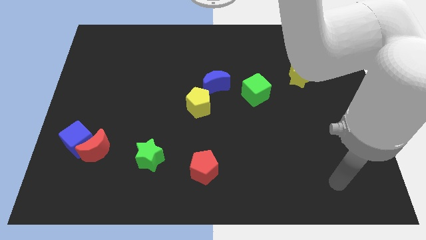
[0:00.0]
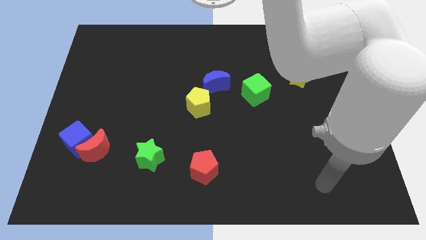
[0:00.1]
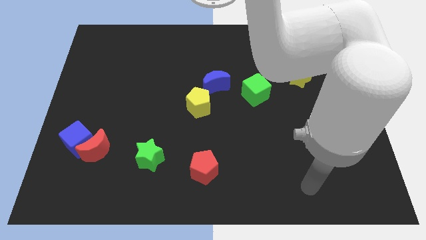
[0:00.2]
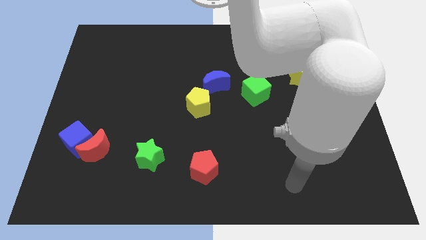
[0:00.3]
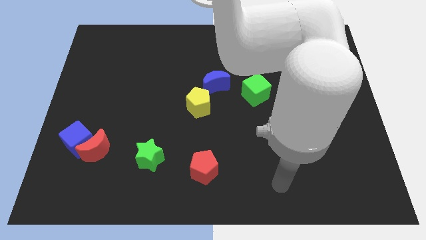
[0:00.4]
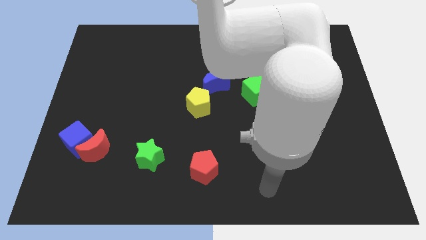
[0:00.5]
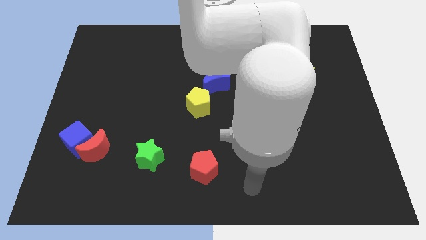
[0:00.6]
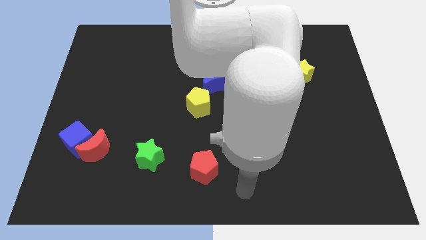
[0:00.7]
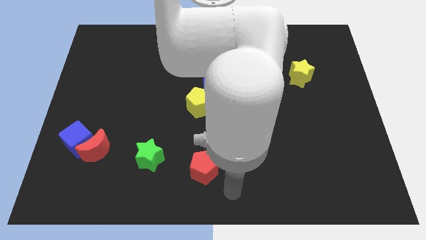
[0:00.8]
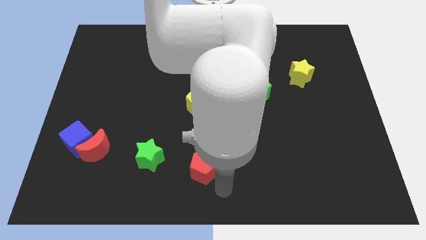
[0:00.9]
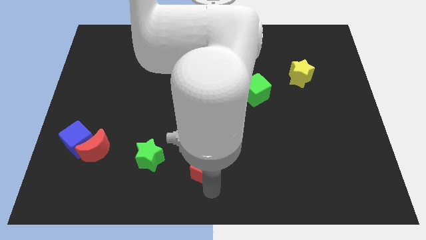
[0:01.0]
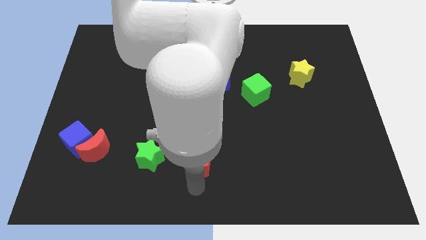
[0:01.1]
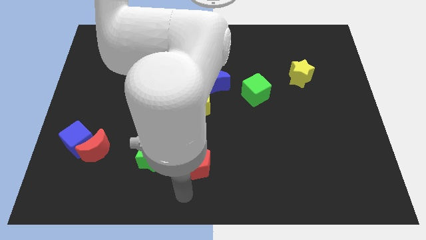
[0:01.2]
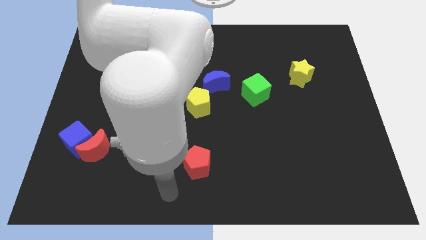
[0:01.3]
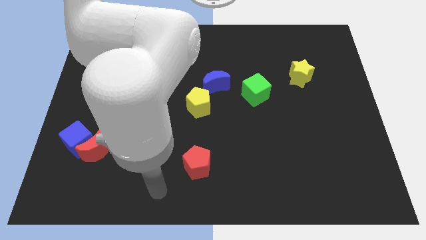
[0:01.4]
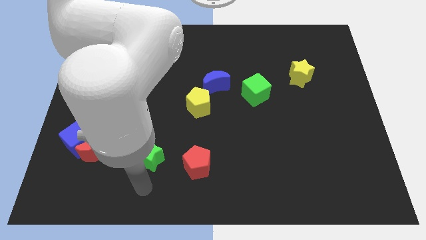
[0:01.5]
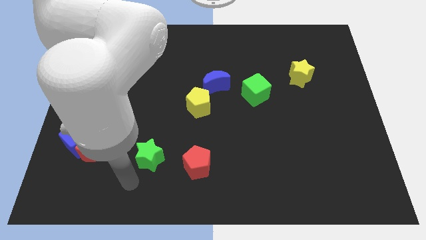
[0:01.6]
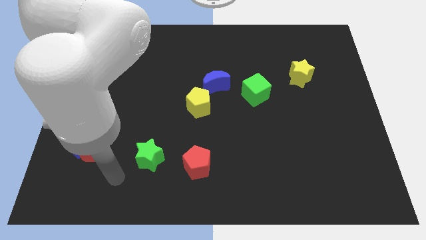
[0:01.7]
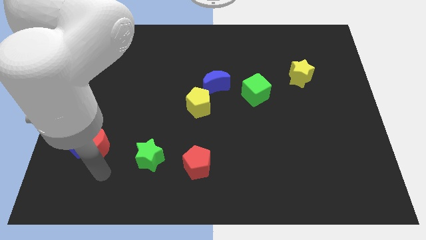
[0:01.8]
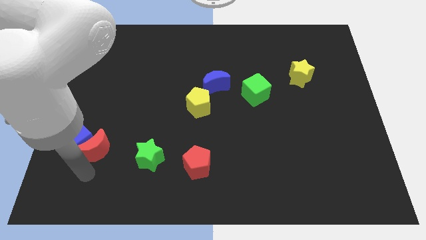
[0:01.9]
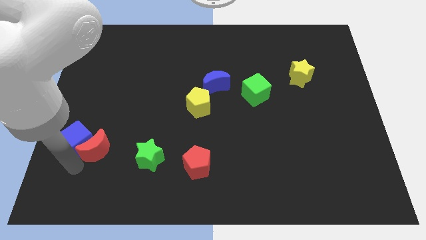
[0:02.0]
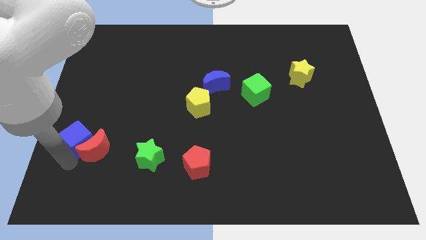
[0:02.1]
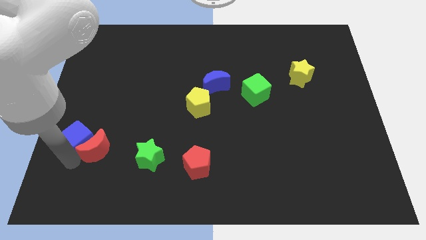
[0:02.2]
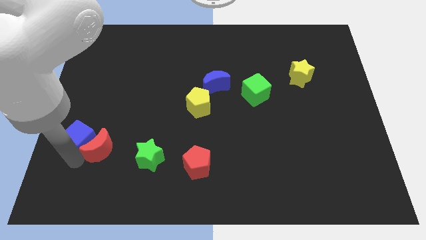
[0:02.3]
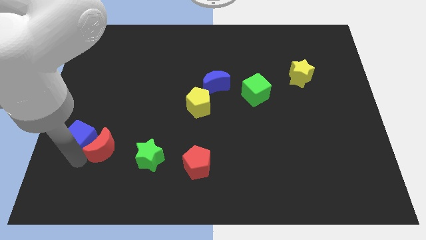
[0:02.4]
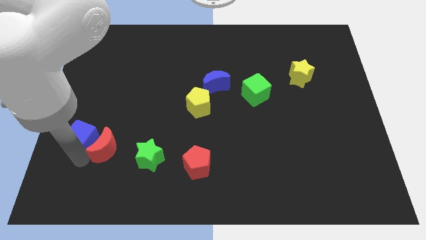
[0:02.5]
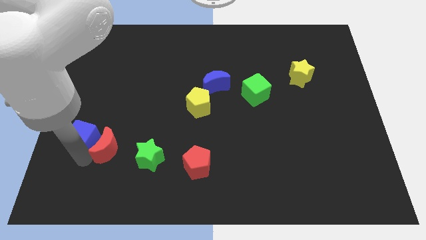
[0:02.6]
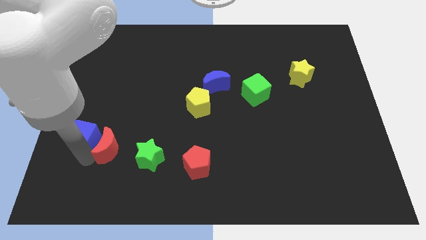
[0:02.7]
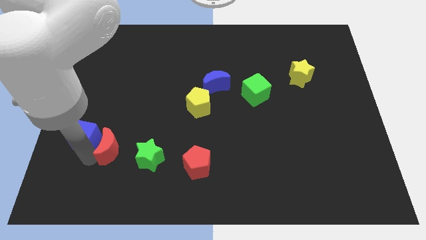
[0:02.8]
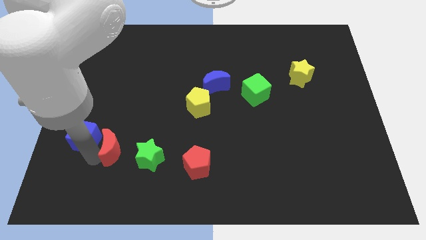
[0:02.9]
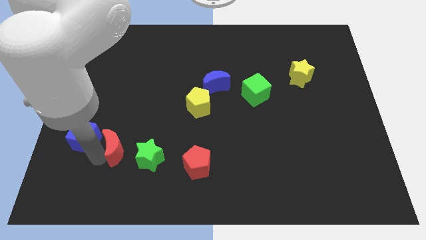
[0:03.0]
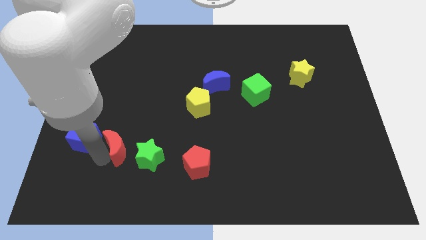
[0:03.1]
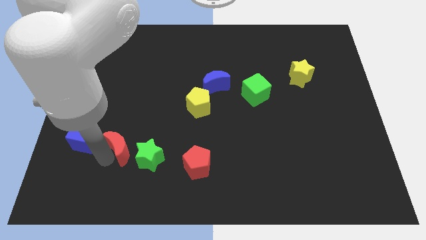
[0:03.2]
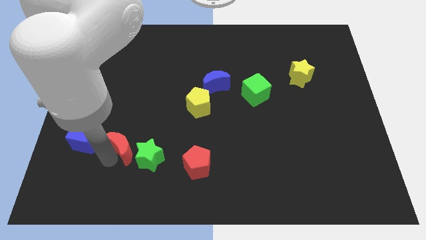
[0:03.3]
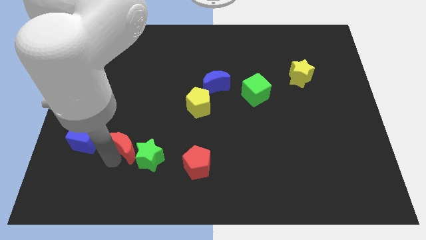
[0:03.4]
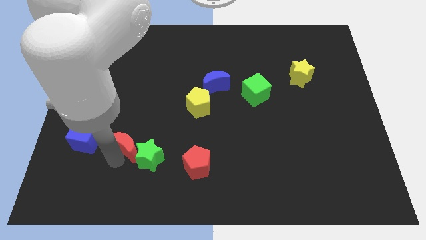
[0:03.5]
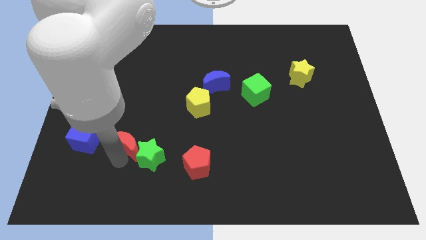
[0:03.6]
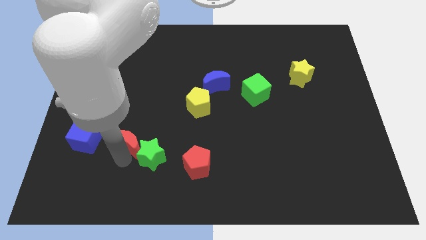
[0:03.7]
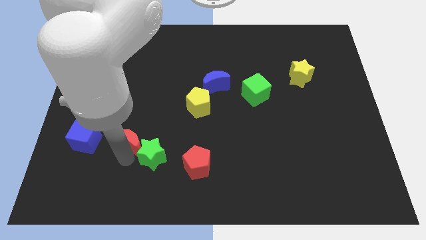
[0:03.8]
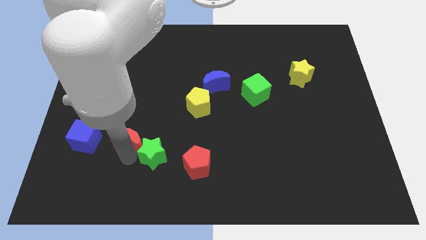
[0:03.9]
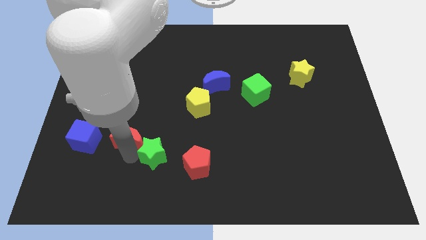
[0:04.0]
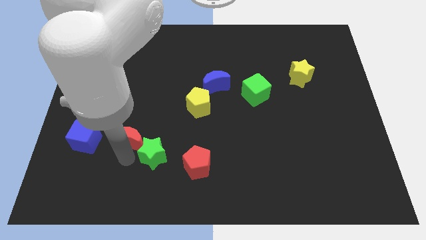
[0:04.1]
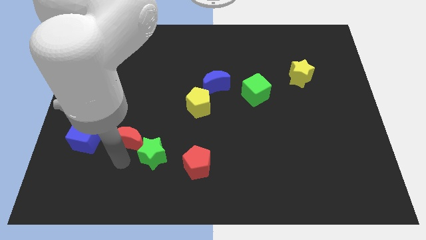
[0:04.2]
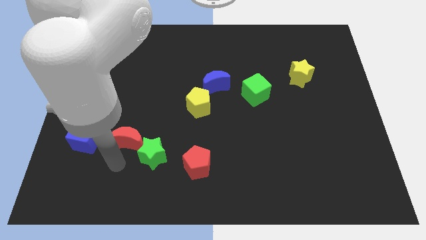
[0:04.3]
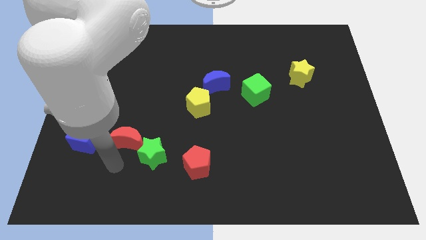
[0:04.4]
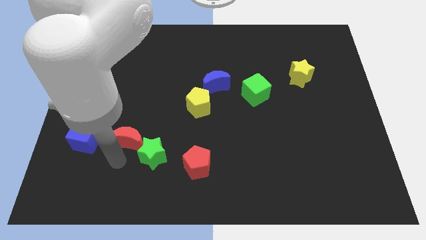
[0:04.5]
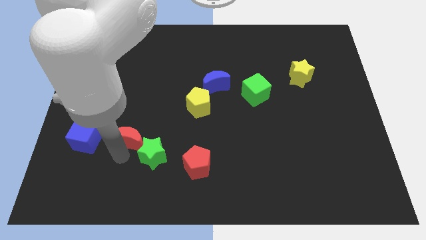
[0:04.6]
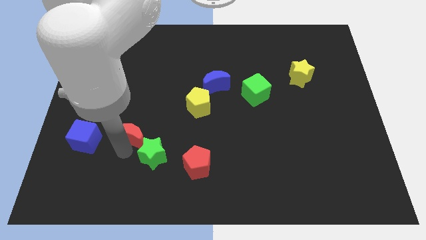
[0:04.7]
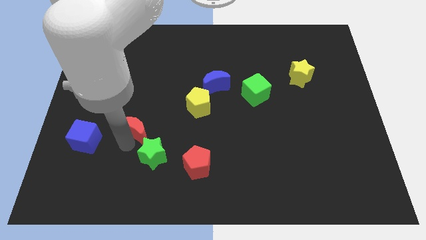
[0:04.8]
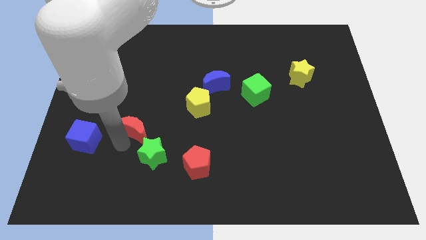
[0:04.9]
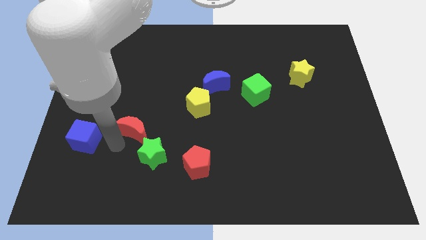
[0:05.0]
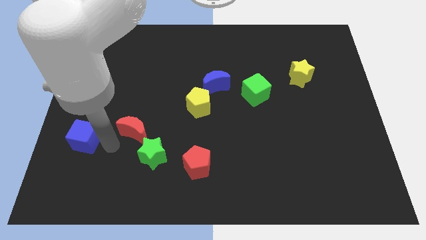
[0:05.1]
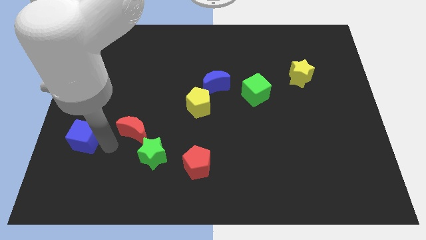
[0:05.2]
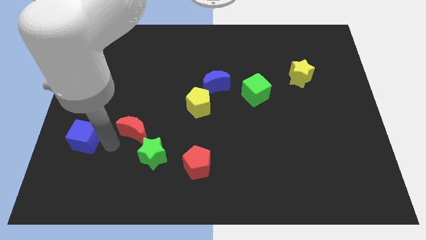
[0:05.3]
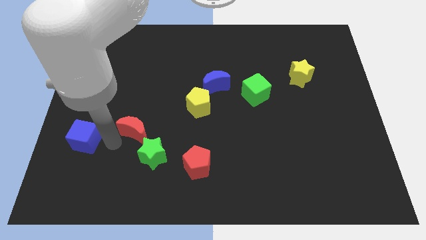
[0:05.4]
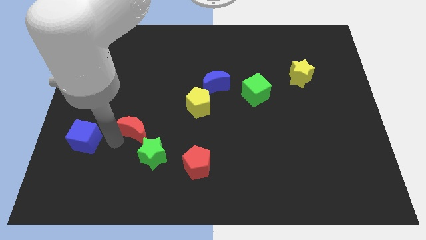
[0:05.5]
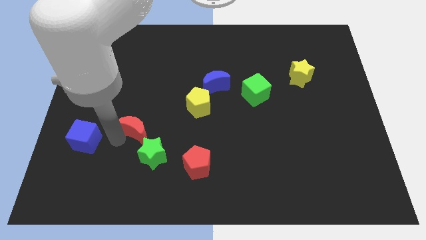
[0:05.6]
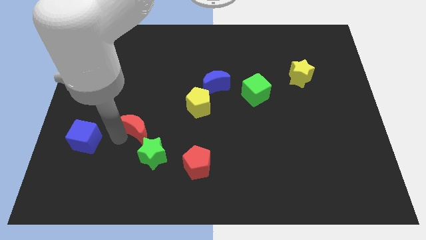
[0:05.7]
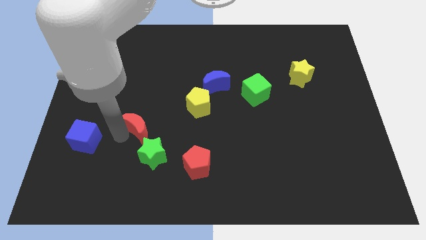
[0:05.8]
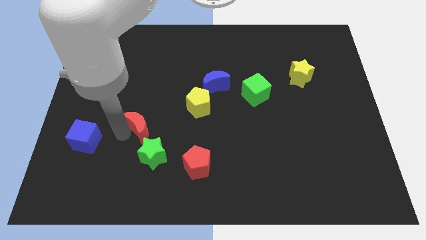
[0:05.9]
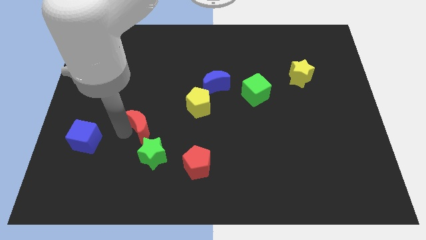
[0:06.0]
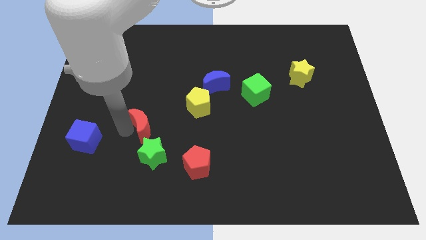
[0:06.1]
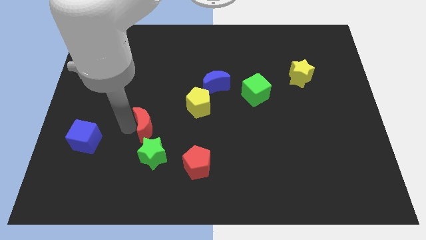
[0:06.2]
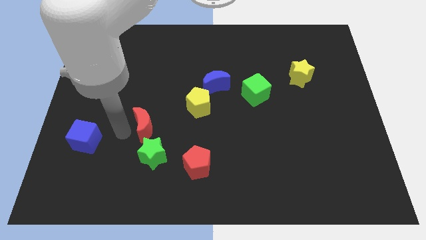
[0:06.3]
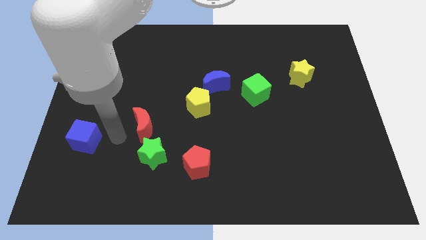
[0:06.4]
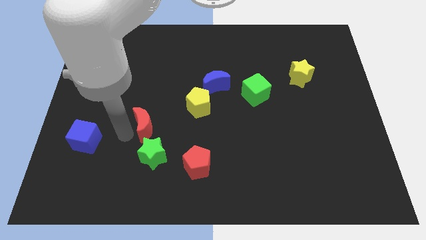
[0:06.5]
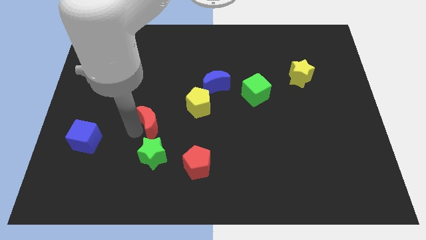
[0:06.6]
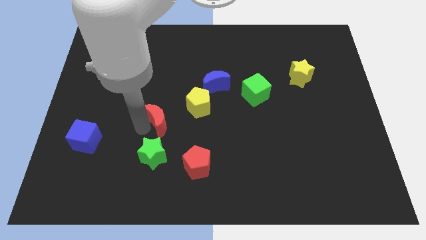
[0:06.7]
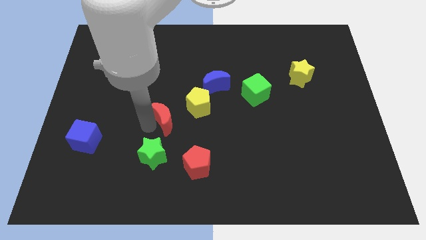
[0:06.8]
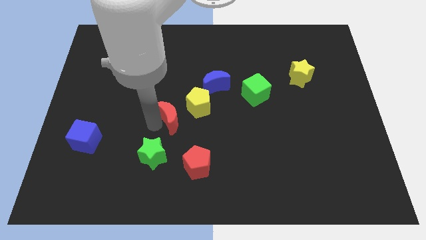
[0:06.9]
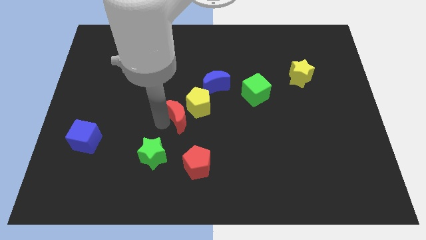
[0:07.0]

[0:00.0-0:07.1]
move the red moon next to the yellow pentagon

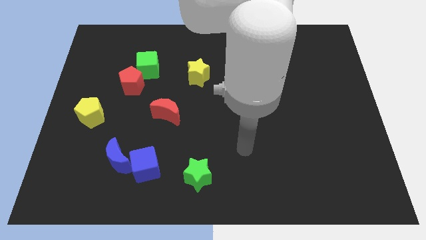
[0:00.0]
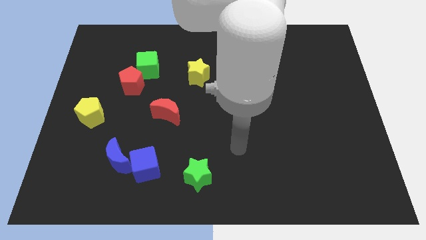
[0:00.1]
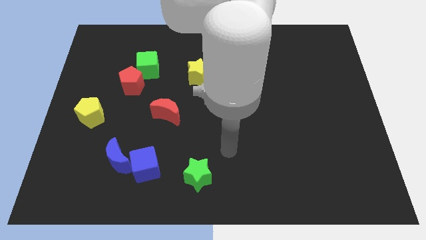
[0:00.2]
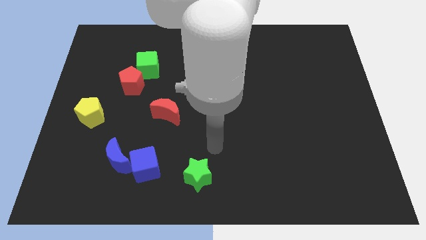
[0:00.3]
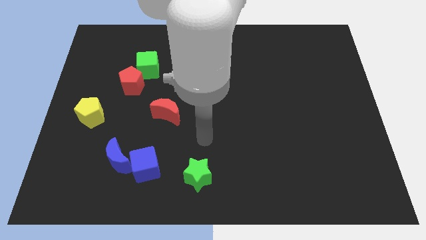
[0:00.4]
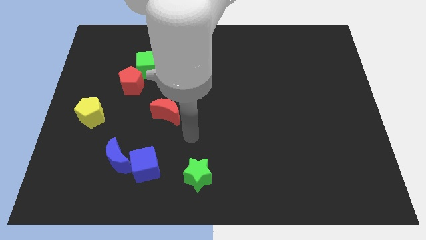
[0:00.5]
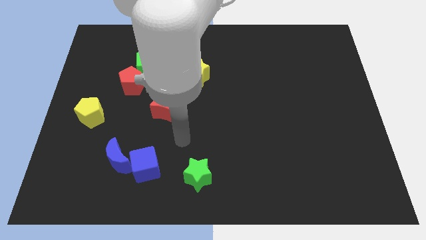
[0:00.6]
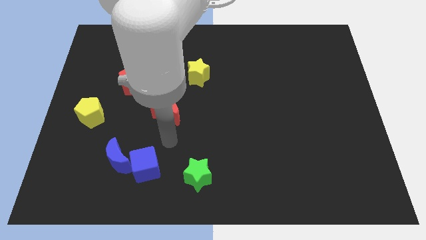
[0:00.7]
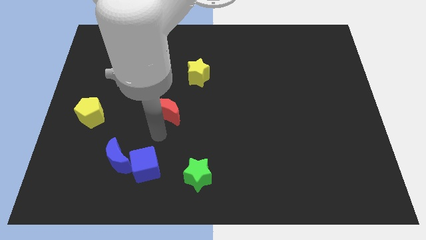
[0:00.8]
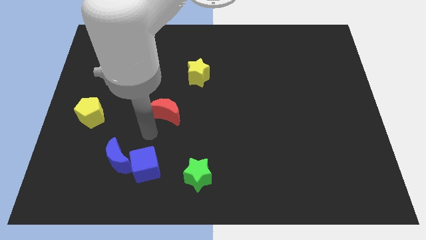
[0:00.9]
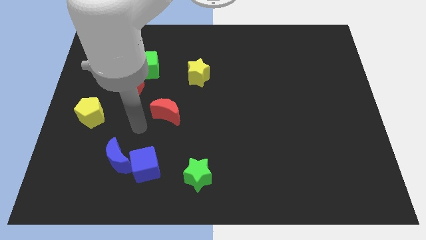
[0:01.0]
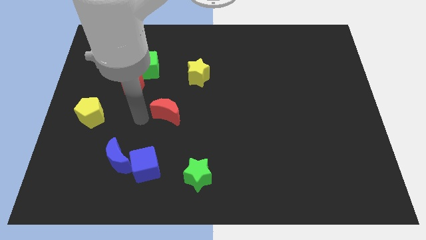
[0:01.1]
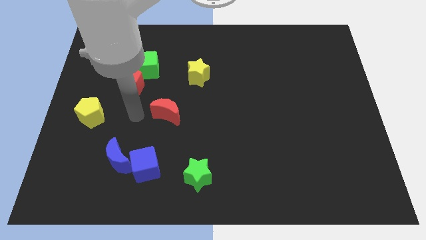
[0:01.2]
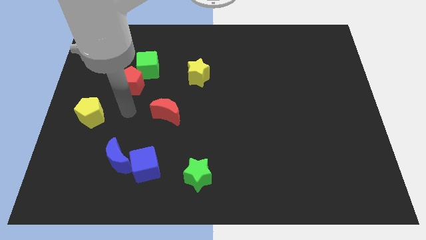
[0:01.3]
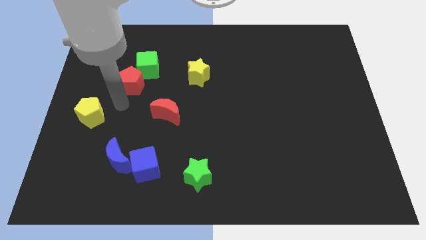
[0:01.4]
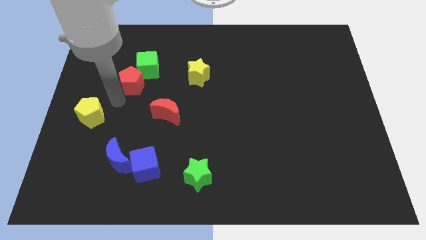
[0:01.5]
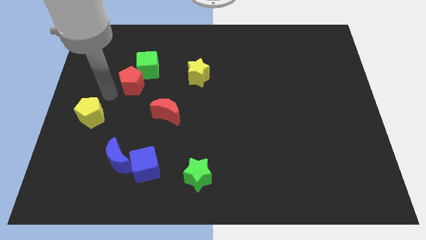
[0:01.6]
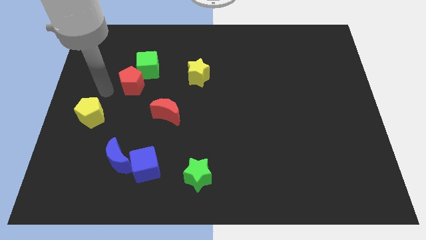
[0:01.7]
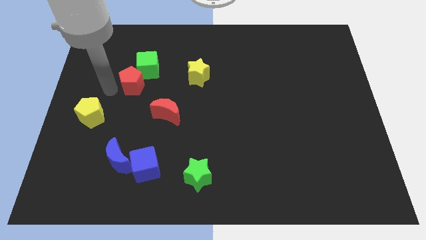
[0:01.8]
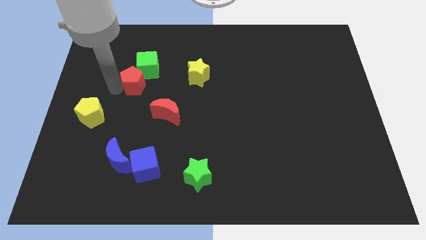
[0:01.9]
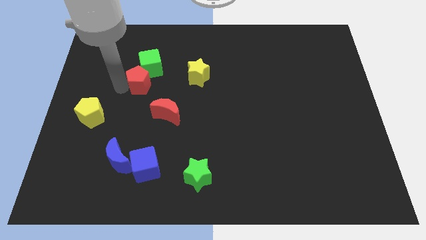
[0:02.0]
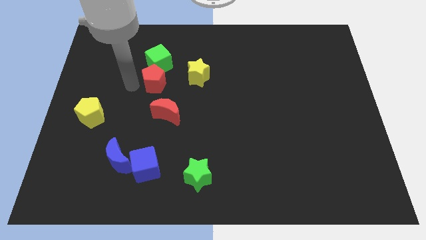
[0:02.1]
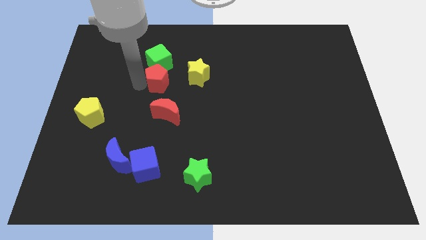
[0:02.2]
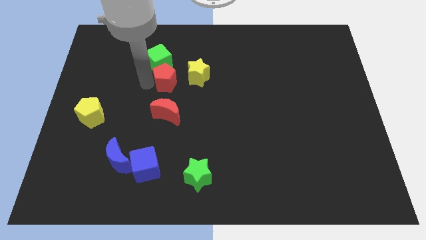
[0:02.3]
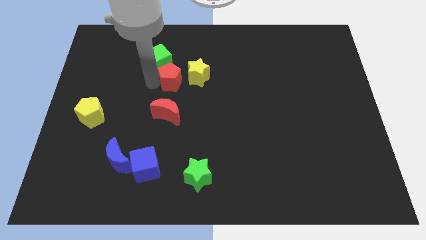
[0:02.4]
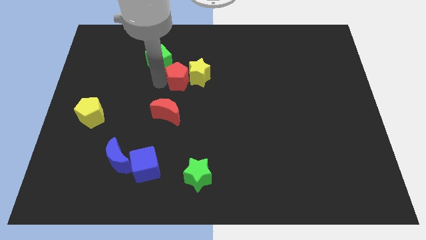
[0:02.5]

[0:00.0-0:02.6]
push the red pentagon next to the yellow star
